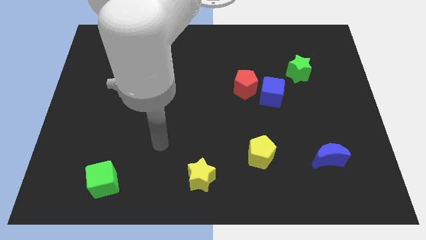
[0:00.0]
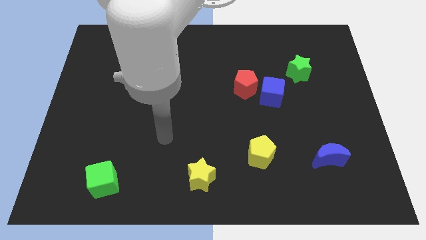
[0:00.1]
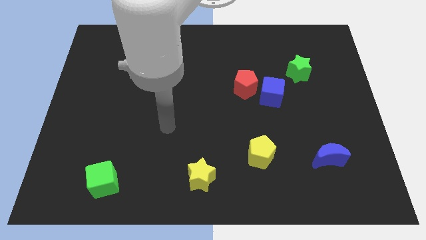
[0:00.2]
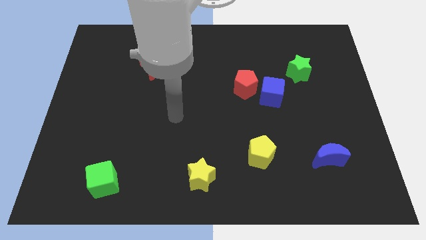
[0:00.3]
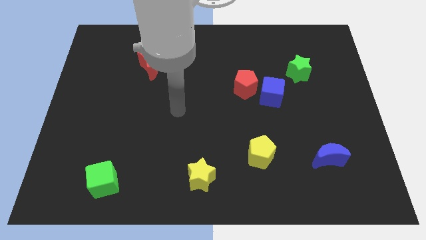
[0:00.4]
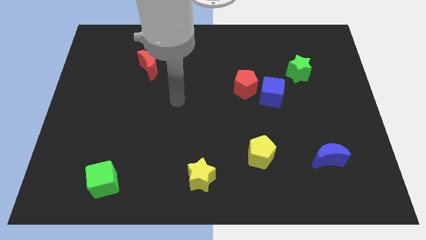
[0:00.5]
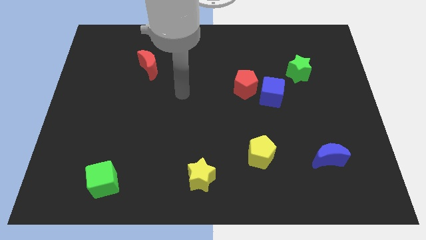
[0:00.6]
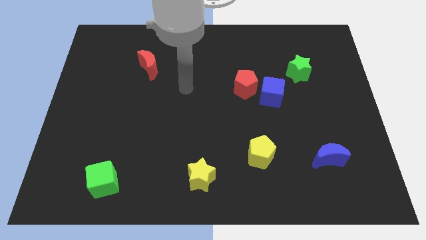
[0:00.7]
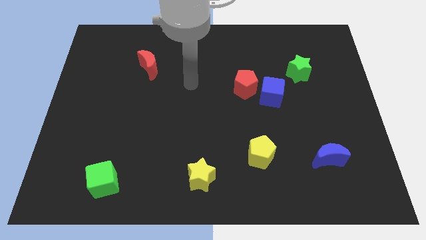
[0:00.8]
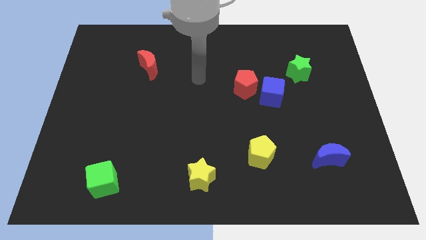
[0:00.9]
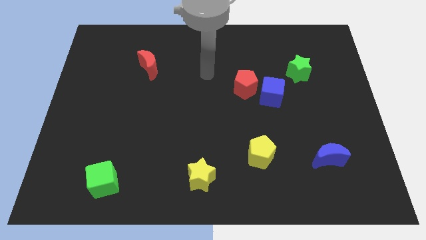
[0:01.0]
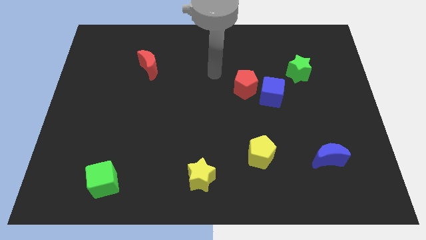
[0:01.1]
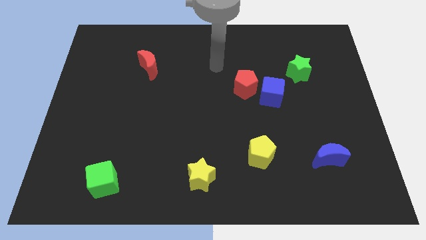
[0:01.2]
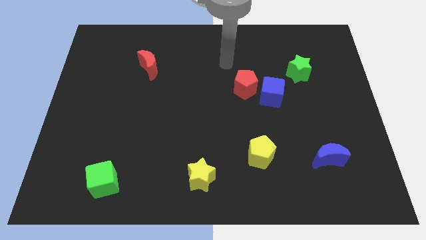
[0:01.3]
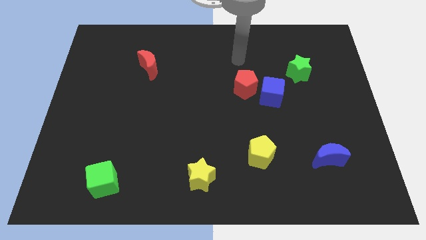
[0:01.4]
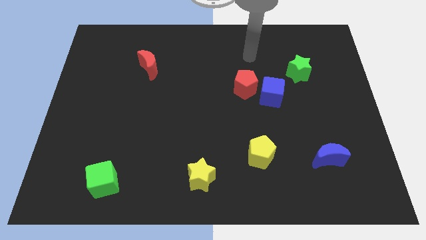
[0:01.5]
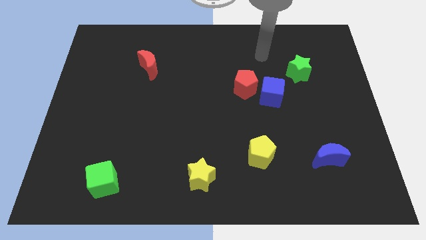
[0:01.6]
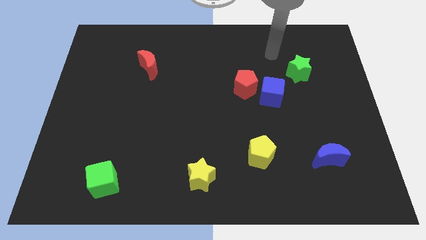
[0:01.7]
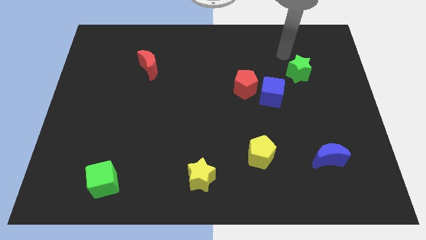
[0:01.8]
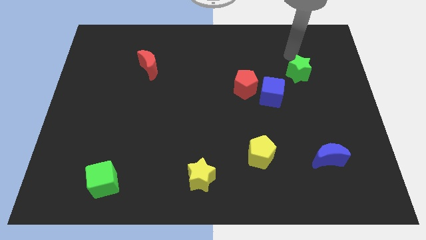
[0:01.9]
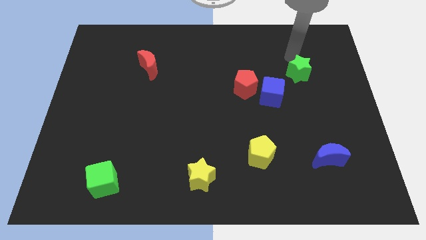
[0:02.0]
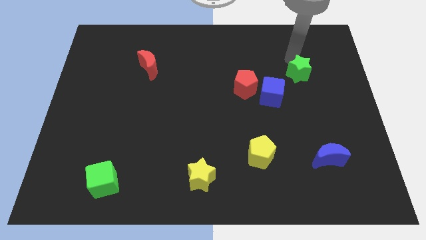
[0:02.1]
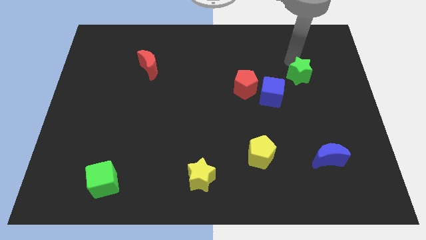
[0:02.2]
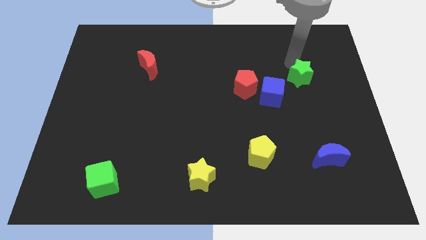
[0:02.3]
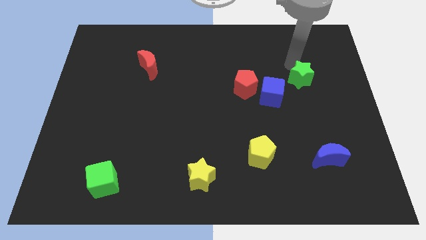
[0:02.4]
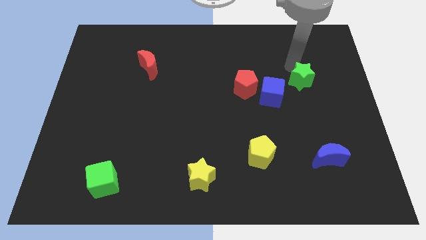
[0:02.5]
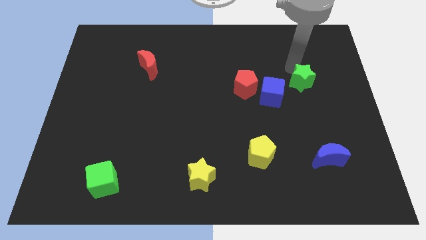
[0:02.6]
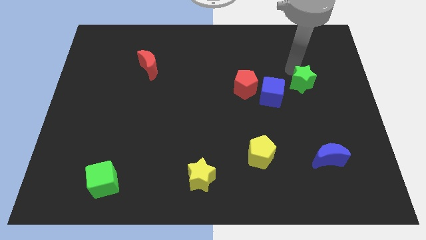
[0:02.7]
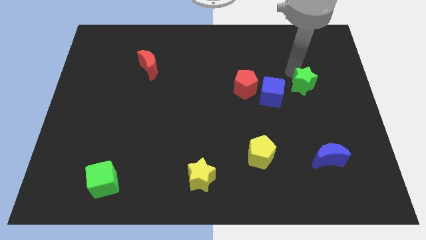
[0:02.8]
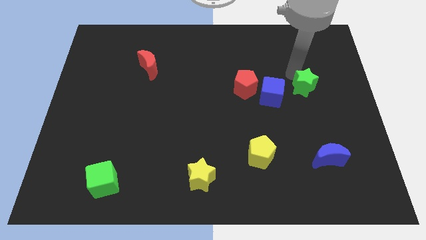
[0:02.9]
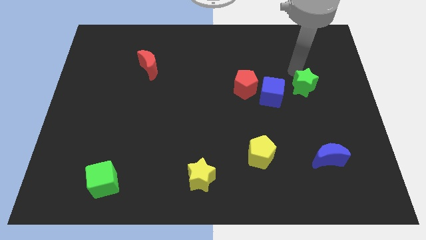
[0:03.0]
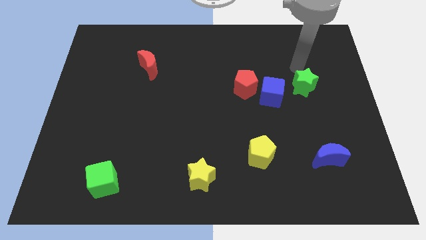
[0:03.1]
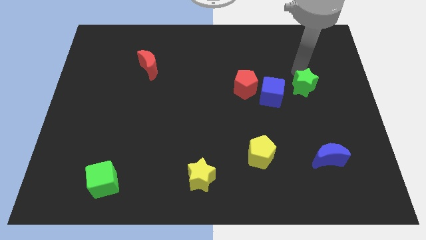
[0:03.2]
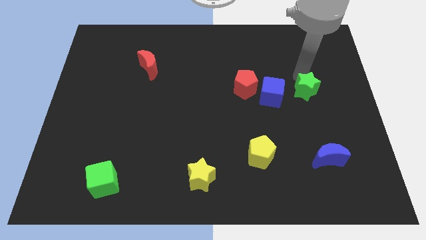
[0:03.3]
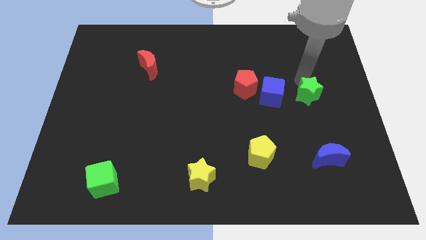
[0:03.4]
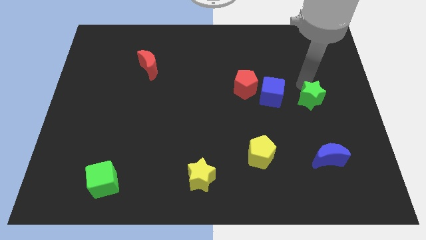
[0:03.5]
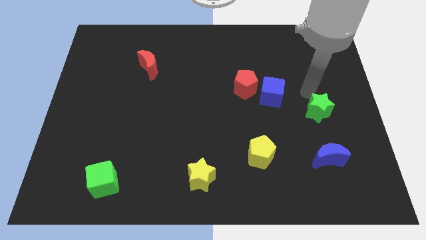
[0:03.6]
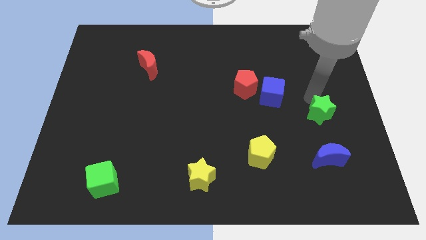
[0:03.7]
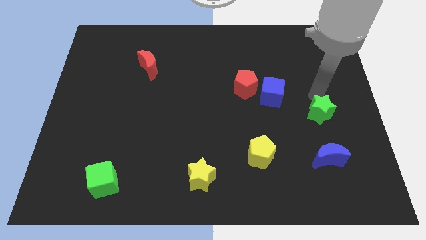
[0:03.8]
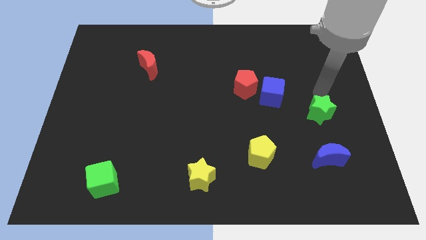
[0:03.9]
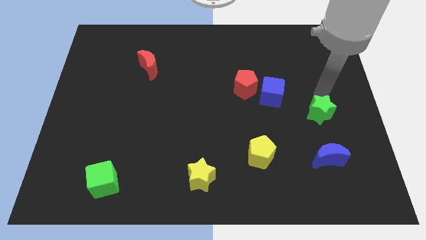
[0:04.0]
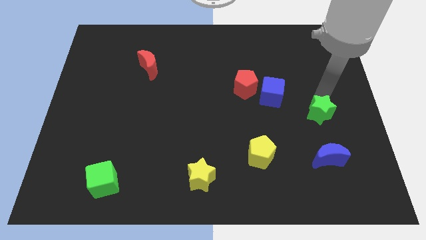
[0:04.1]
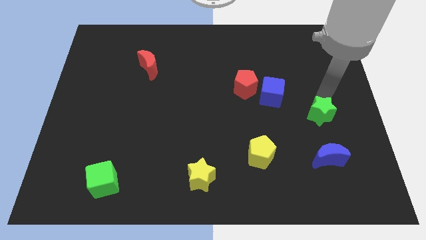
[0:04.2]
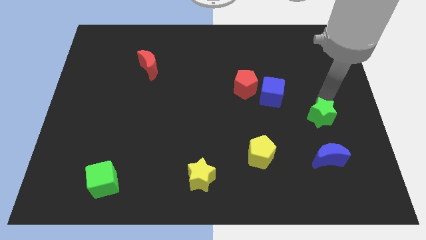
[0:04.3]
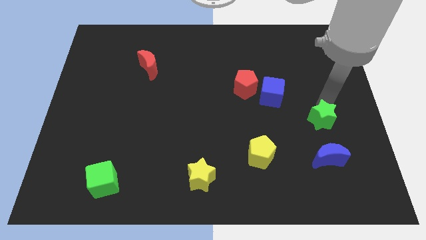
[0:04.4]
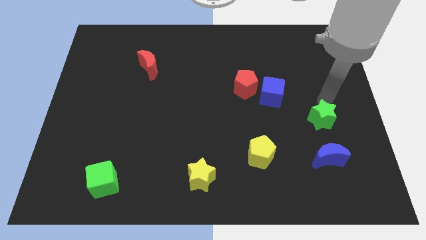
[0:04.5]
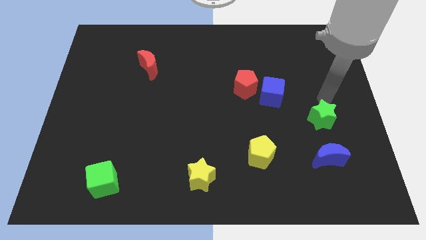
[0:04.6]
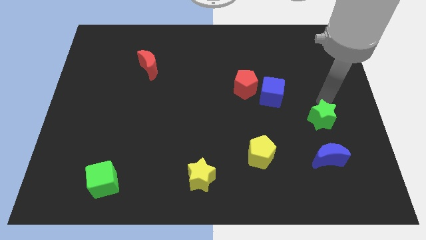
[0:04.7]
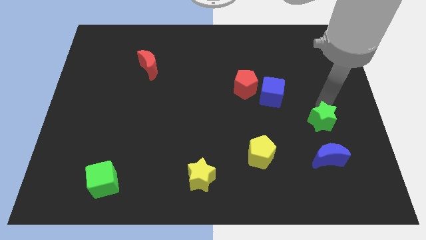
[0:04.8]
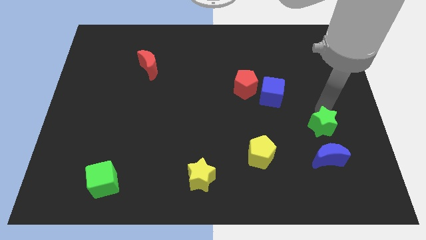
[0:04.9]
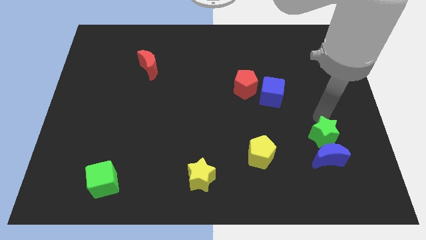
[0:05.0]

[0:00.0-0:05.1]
slide the green star next to the blue moon

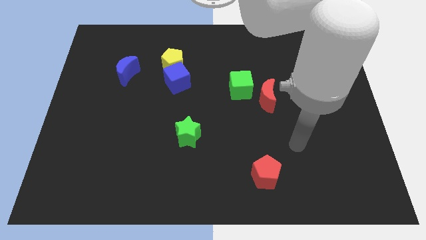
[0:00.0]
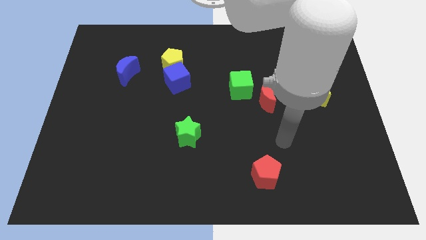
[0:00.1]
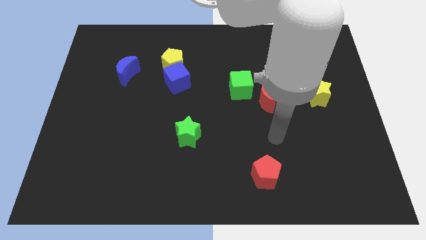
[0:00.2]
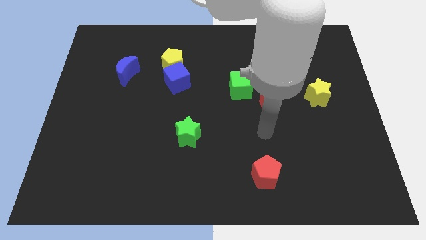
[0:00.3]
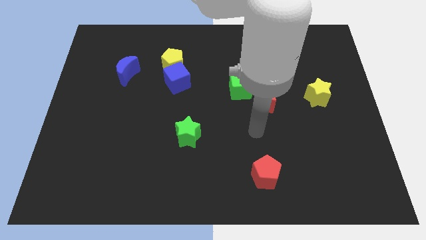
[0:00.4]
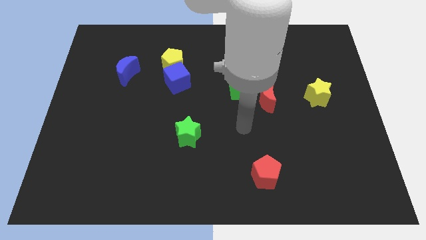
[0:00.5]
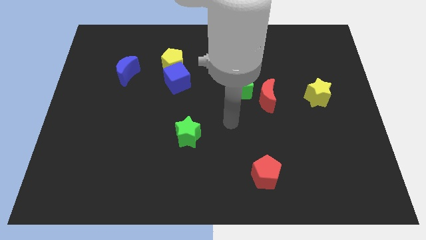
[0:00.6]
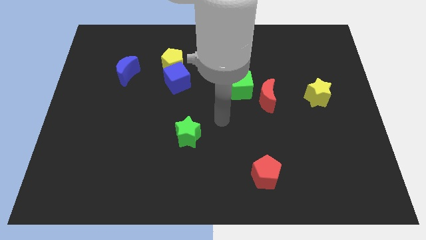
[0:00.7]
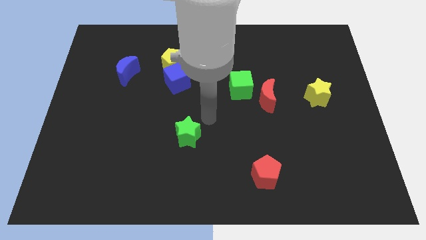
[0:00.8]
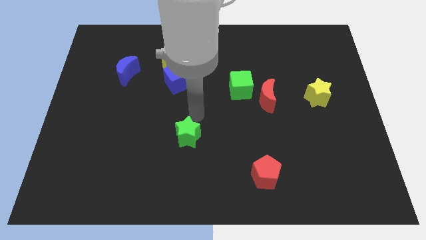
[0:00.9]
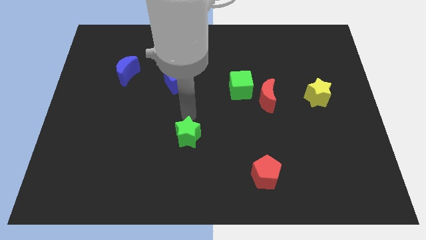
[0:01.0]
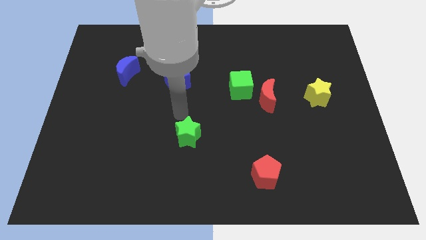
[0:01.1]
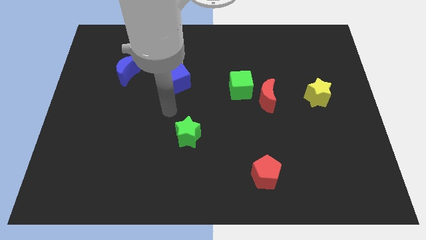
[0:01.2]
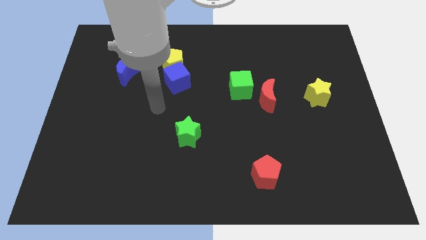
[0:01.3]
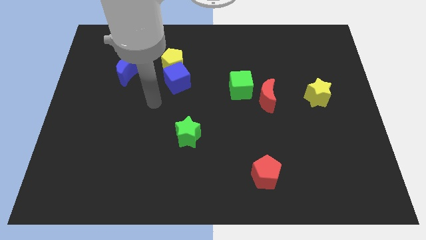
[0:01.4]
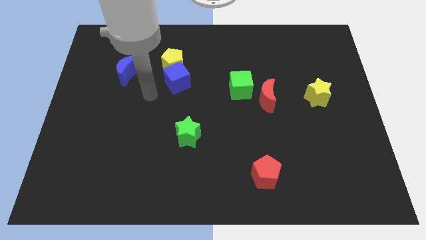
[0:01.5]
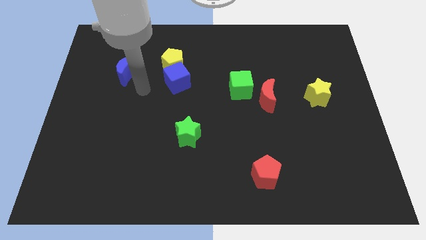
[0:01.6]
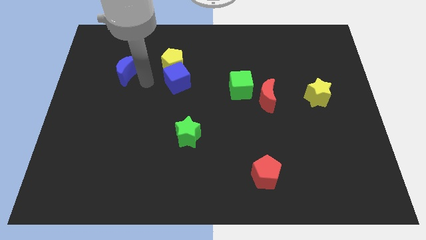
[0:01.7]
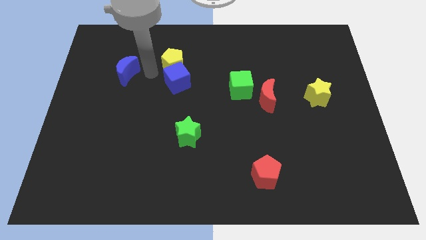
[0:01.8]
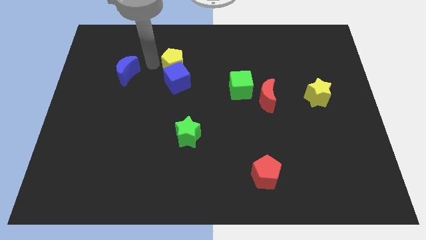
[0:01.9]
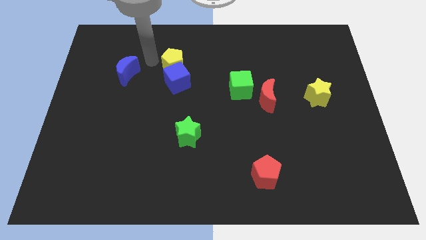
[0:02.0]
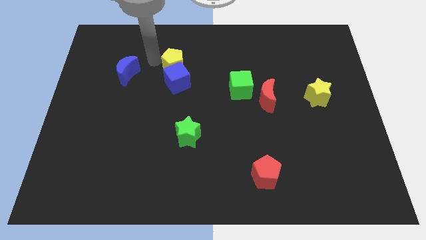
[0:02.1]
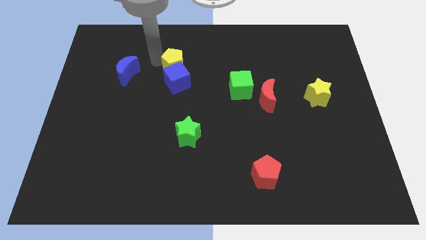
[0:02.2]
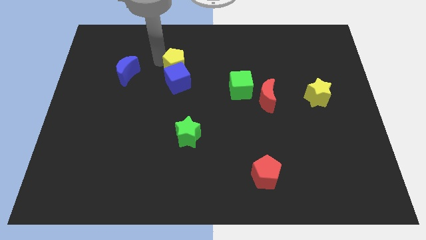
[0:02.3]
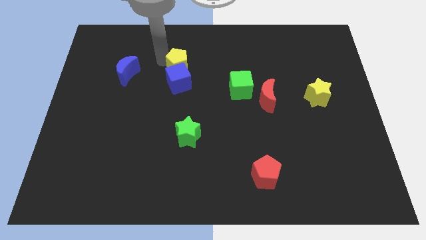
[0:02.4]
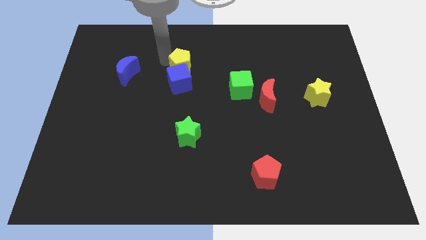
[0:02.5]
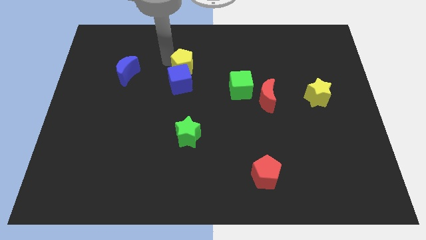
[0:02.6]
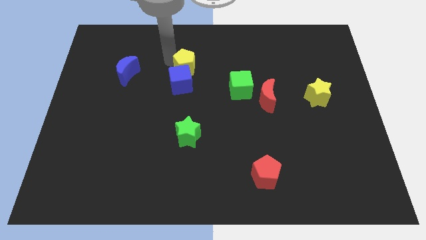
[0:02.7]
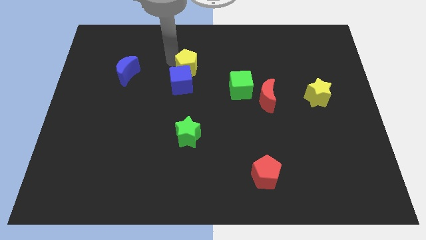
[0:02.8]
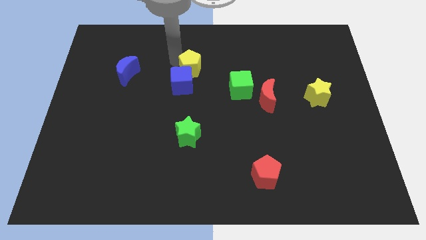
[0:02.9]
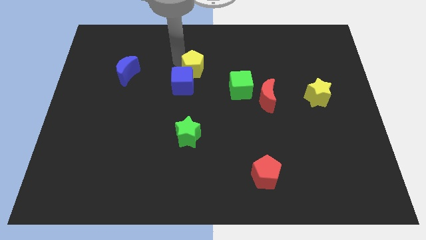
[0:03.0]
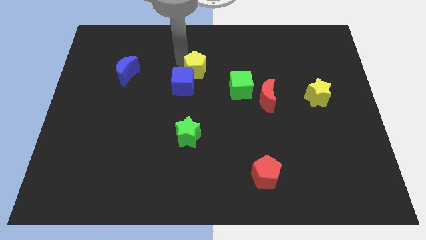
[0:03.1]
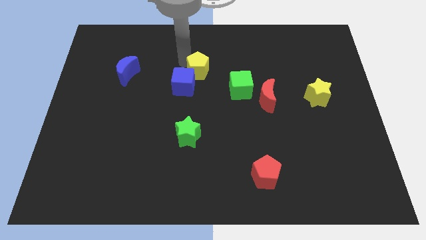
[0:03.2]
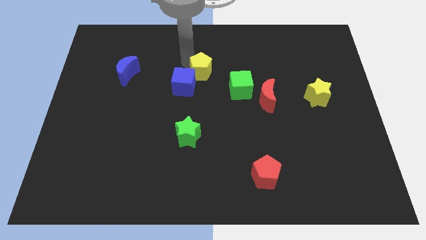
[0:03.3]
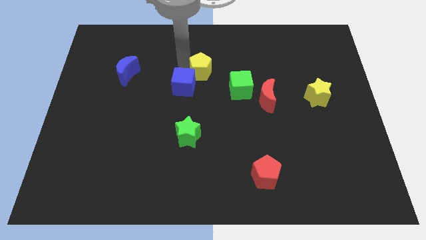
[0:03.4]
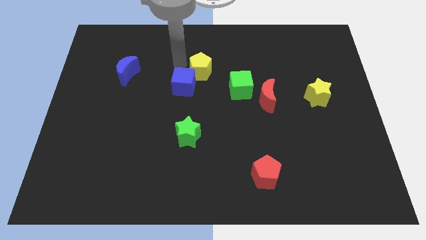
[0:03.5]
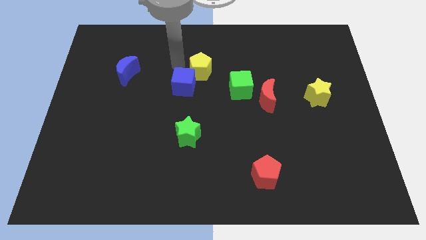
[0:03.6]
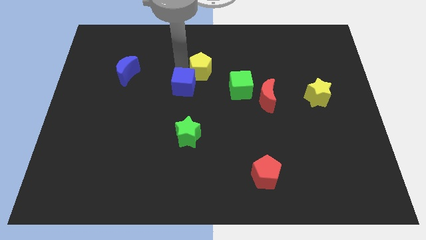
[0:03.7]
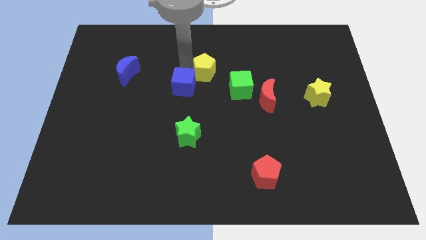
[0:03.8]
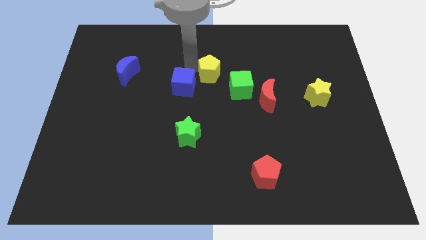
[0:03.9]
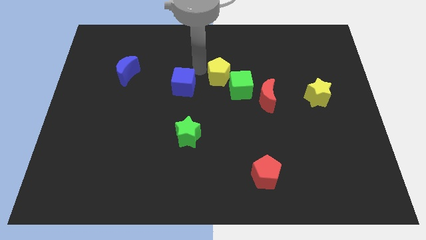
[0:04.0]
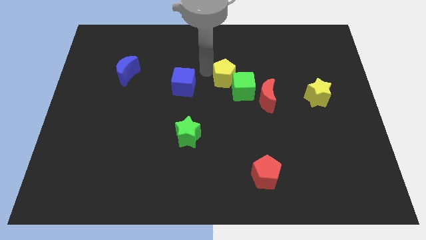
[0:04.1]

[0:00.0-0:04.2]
push the yellow pentagon towards the green cube
